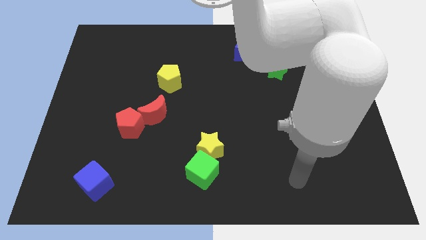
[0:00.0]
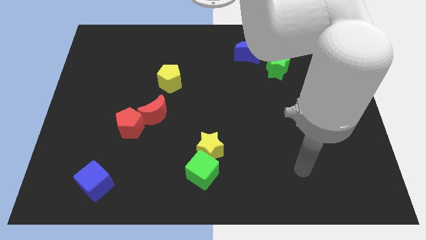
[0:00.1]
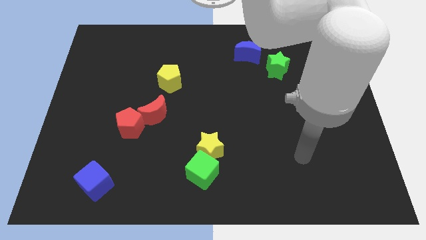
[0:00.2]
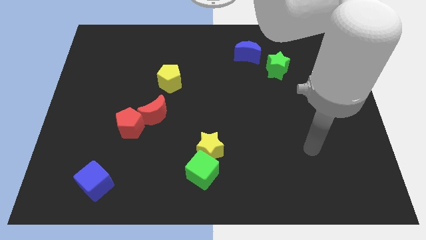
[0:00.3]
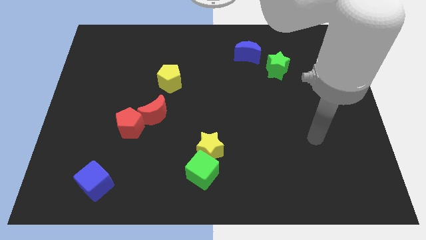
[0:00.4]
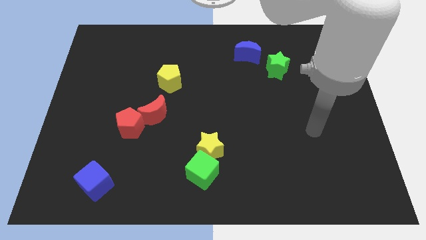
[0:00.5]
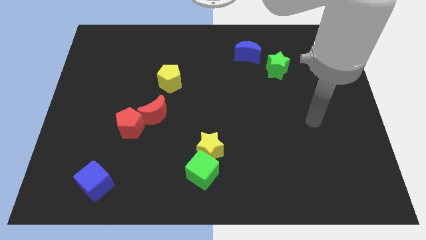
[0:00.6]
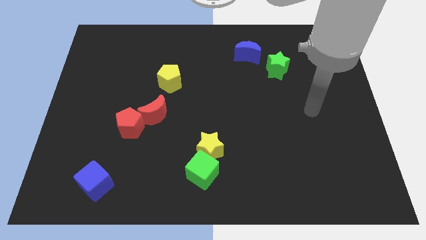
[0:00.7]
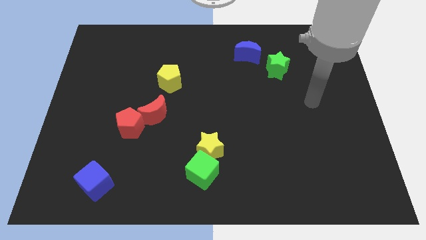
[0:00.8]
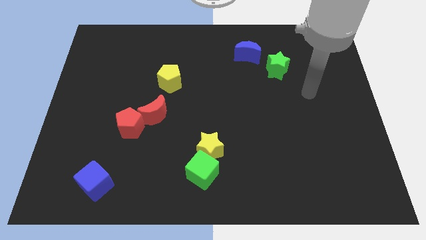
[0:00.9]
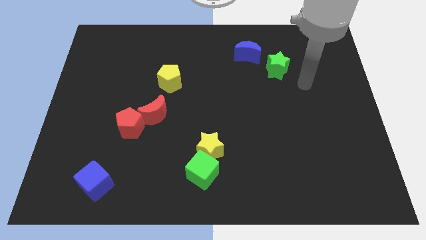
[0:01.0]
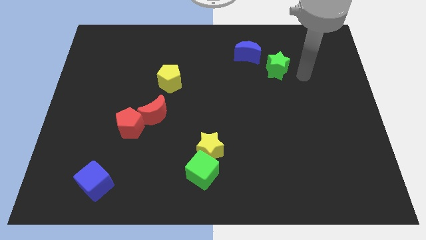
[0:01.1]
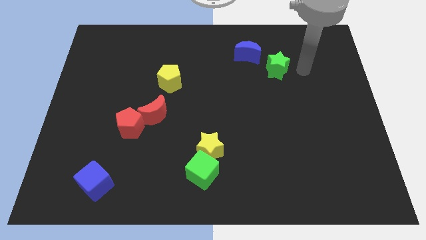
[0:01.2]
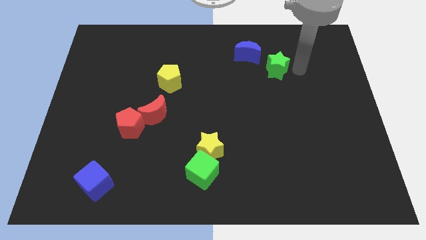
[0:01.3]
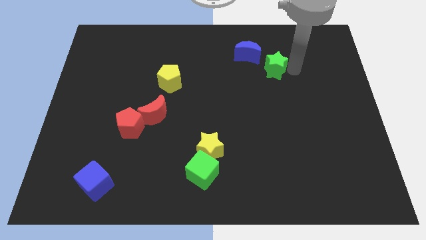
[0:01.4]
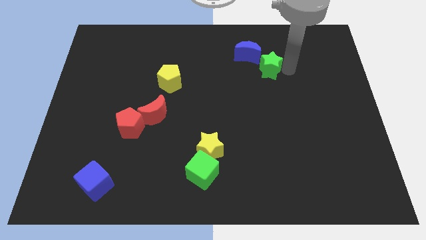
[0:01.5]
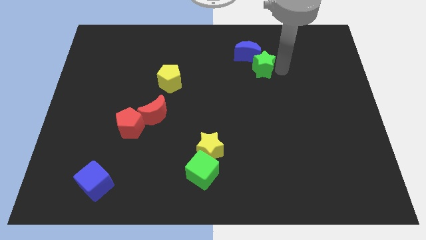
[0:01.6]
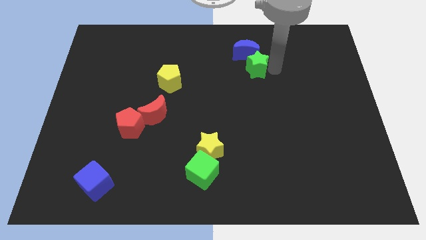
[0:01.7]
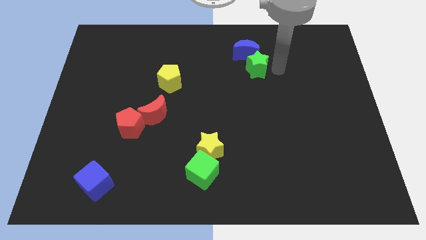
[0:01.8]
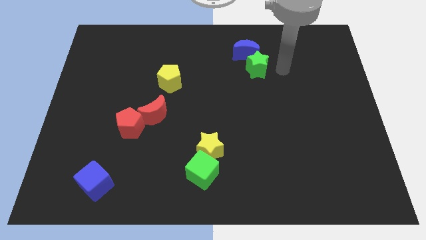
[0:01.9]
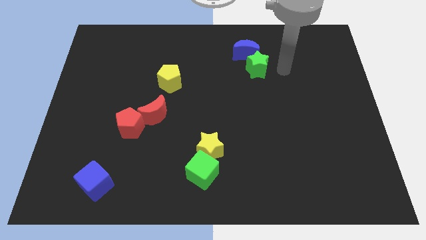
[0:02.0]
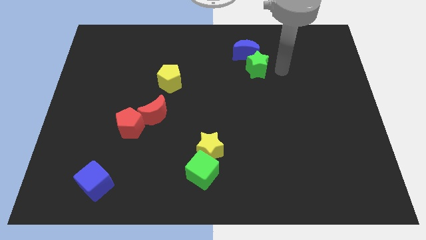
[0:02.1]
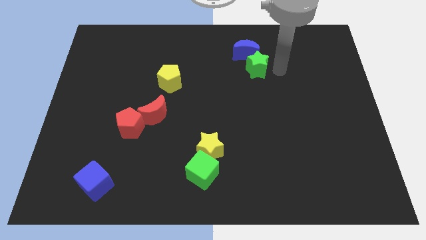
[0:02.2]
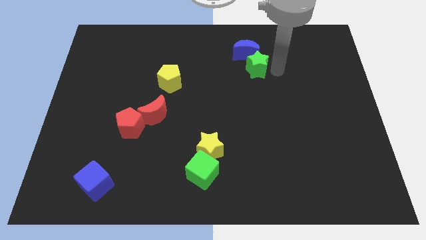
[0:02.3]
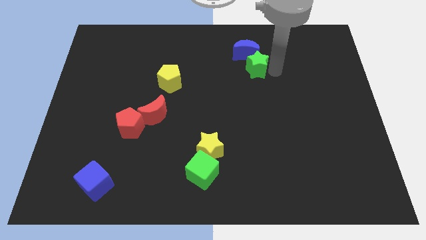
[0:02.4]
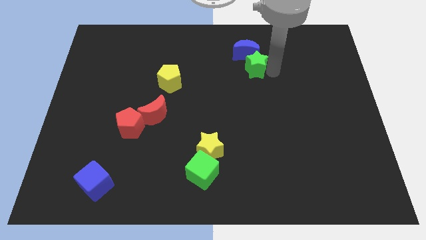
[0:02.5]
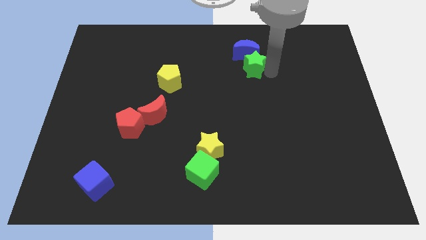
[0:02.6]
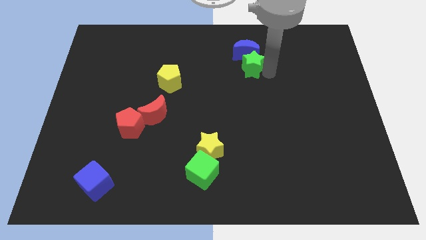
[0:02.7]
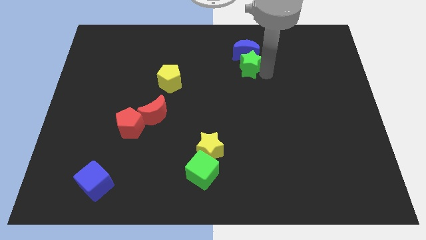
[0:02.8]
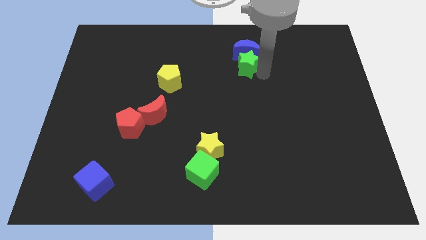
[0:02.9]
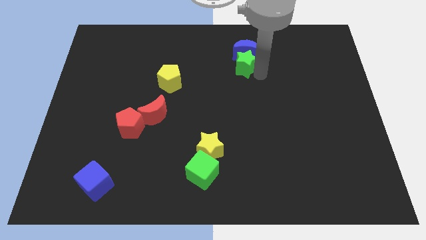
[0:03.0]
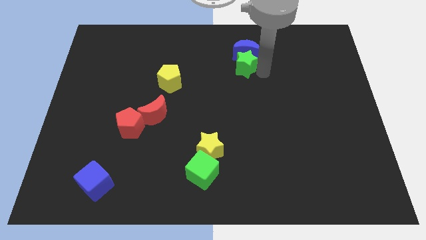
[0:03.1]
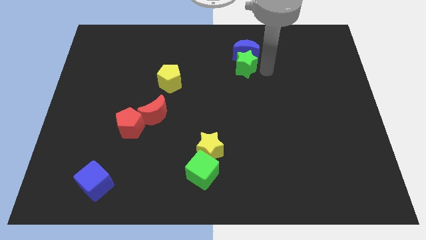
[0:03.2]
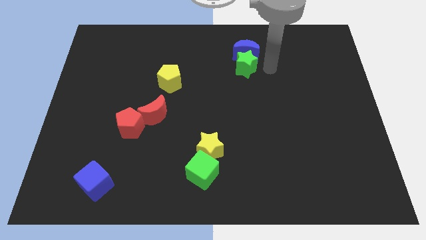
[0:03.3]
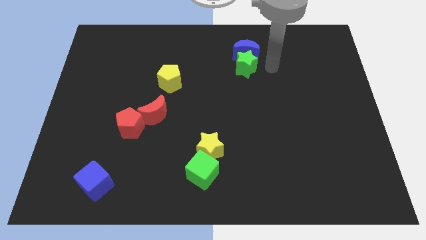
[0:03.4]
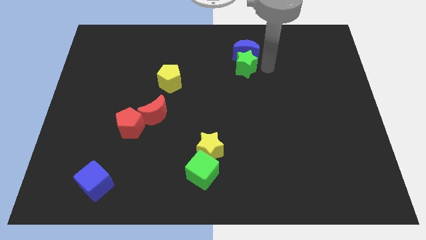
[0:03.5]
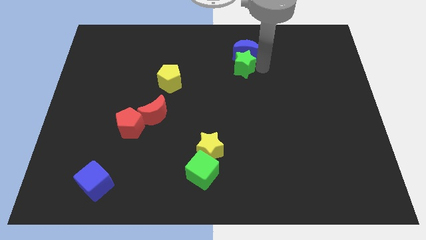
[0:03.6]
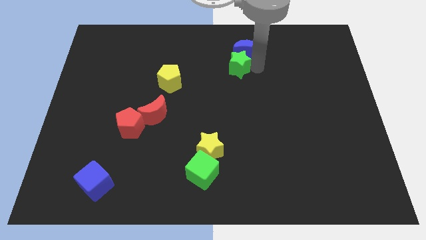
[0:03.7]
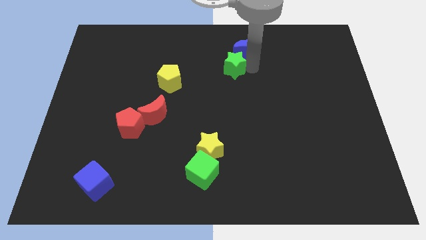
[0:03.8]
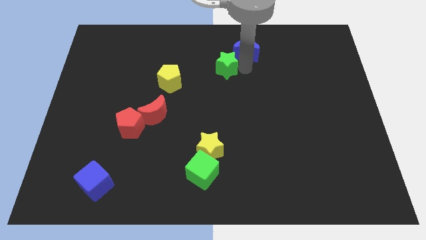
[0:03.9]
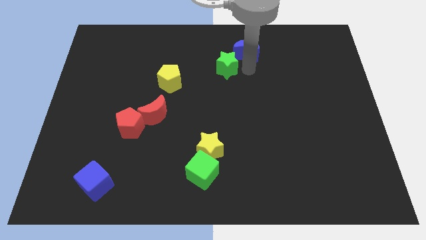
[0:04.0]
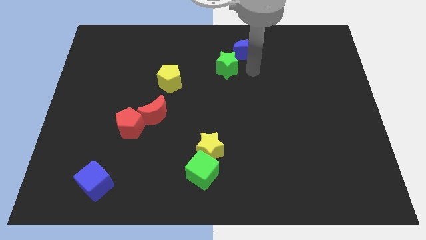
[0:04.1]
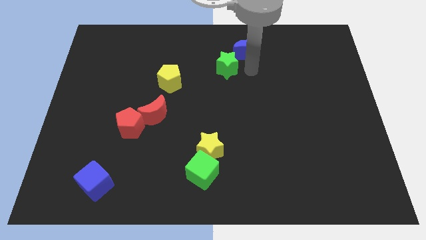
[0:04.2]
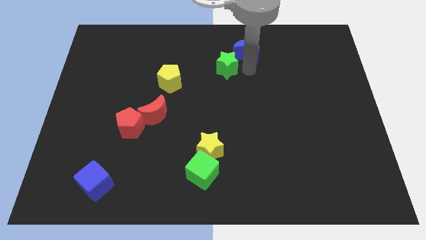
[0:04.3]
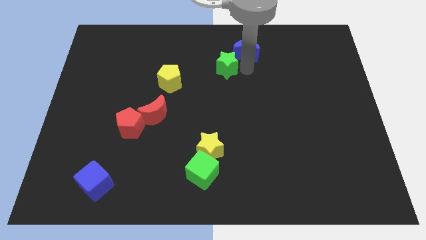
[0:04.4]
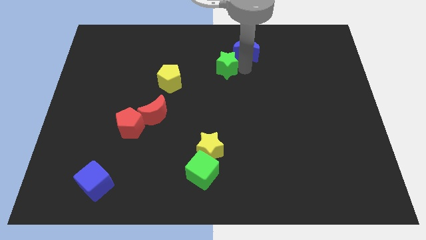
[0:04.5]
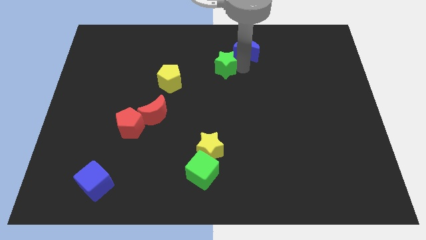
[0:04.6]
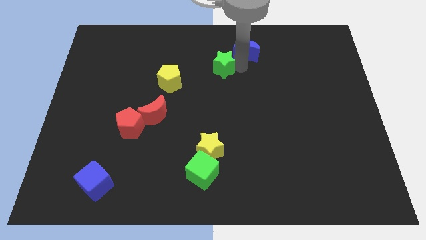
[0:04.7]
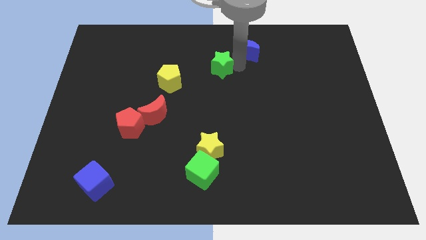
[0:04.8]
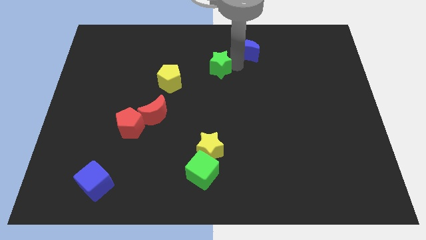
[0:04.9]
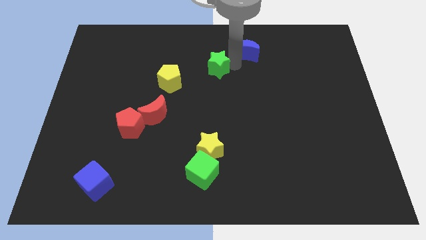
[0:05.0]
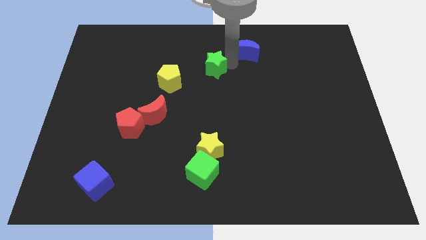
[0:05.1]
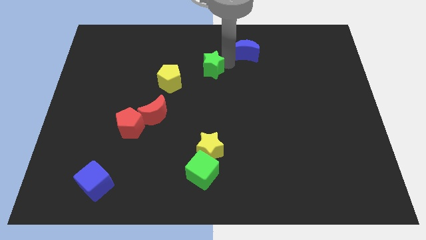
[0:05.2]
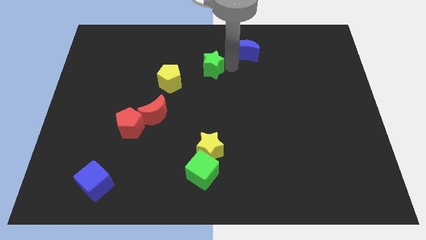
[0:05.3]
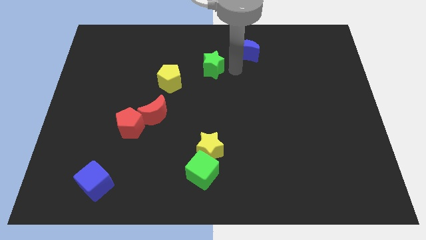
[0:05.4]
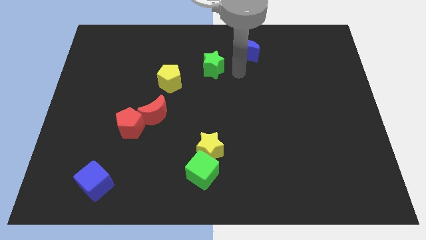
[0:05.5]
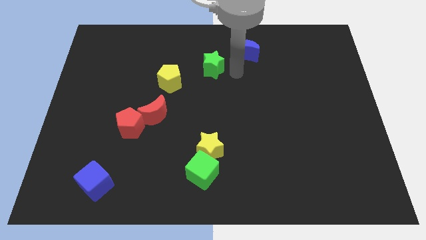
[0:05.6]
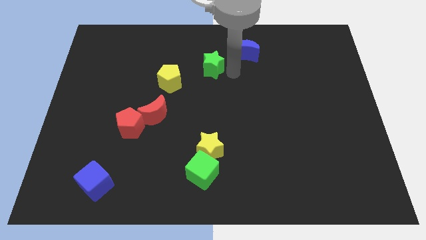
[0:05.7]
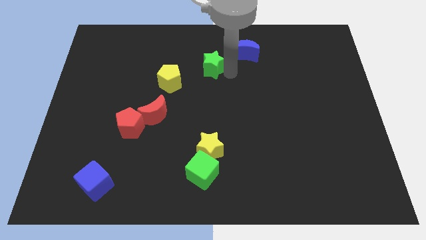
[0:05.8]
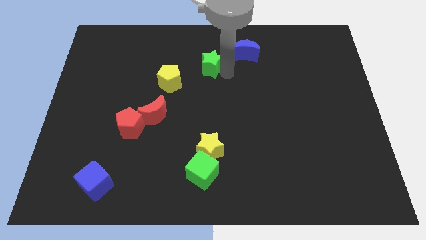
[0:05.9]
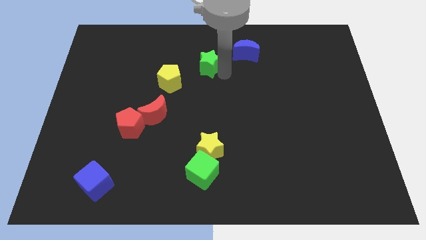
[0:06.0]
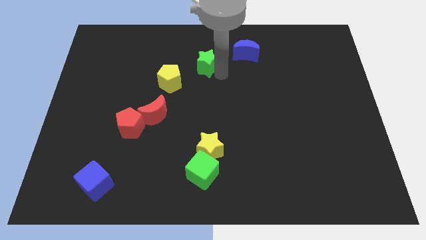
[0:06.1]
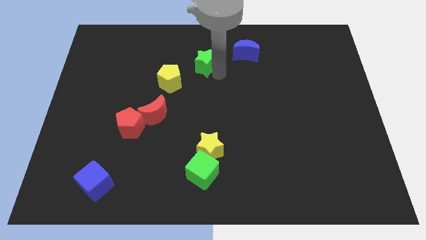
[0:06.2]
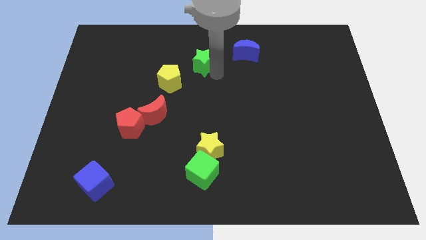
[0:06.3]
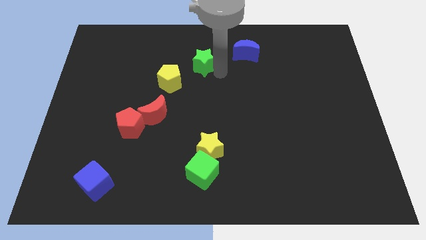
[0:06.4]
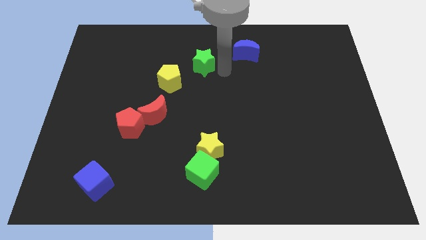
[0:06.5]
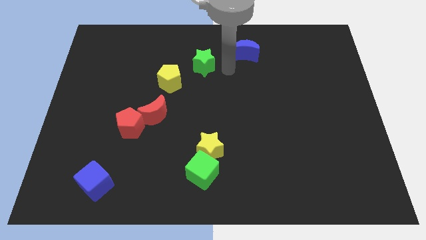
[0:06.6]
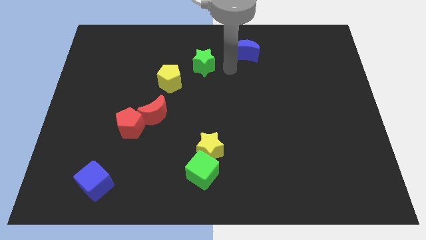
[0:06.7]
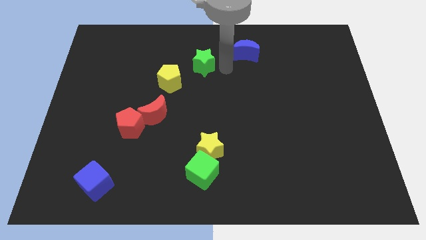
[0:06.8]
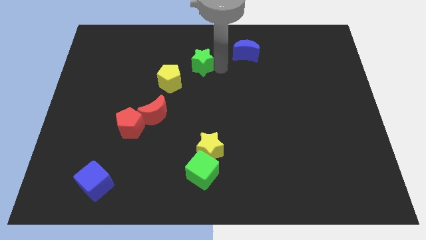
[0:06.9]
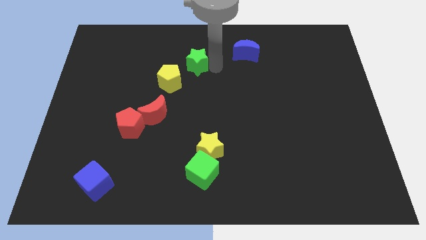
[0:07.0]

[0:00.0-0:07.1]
move the green star left

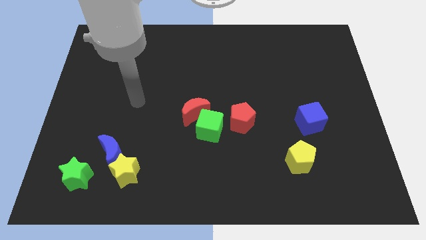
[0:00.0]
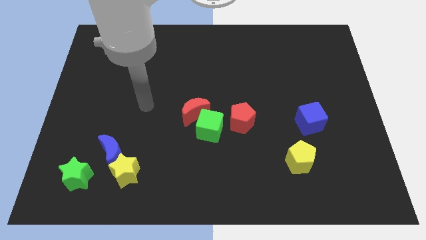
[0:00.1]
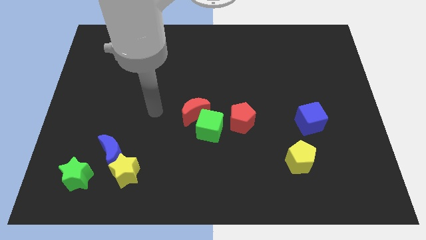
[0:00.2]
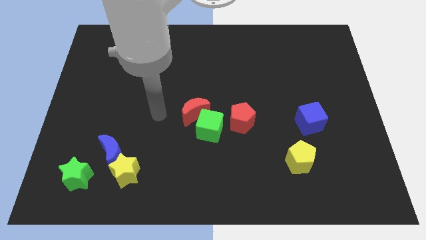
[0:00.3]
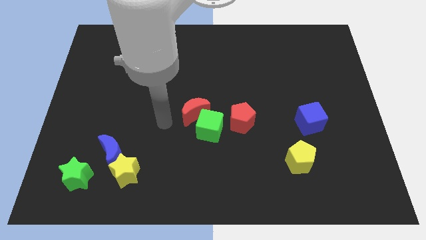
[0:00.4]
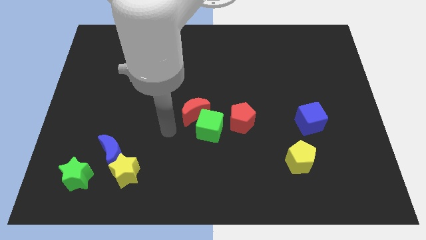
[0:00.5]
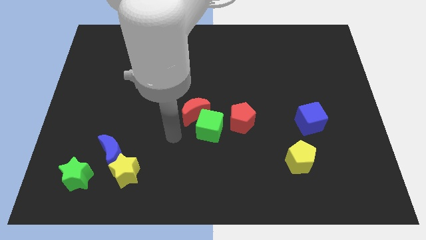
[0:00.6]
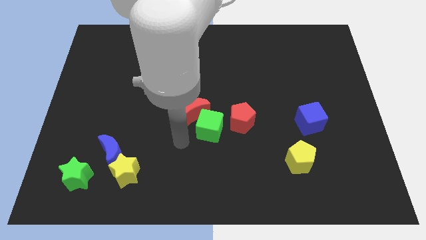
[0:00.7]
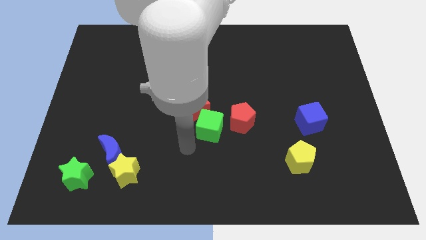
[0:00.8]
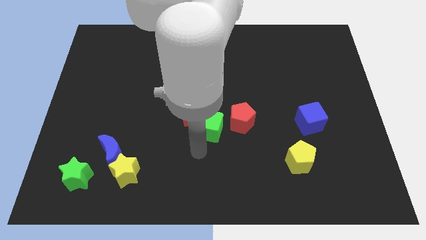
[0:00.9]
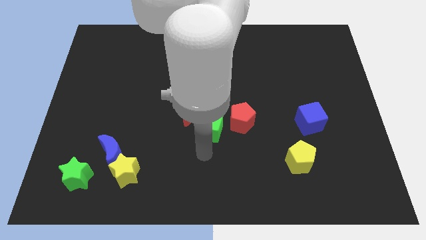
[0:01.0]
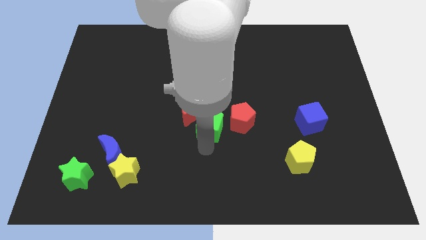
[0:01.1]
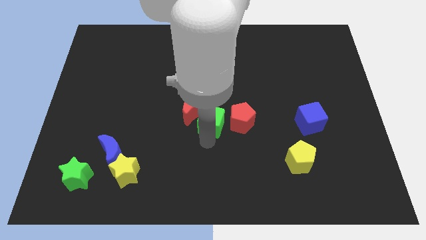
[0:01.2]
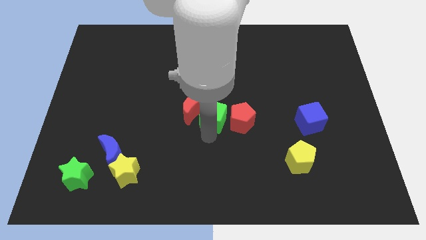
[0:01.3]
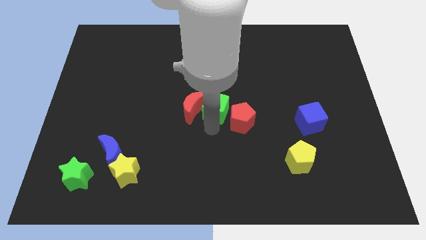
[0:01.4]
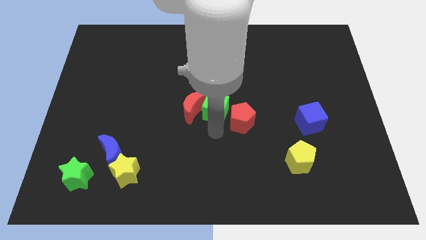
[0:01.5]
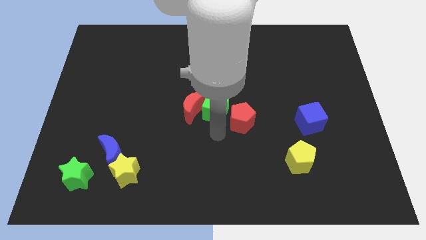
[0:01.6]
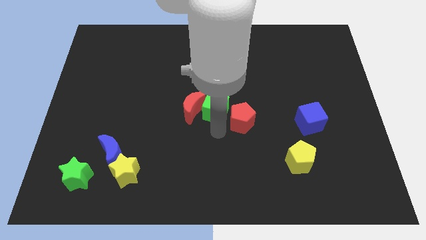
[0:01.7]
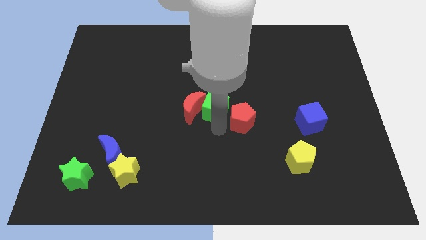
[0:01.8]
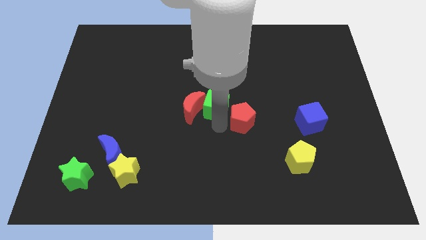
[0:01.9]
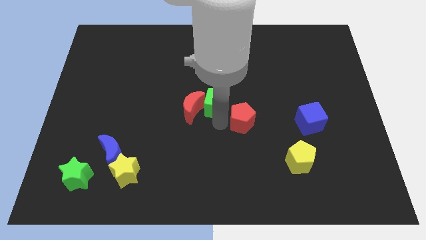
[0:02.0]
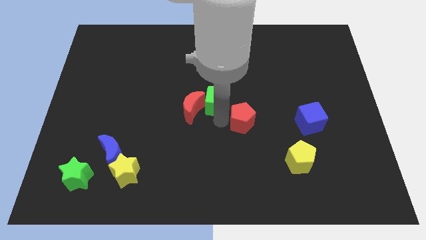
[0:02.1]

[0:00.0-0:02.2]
move the green cube up a little bit
